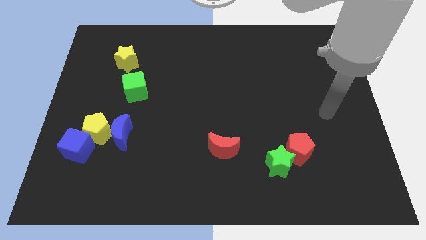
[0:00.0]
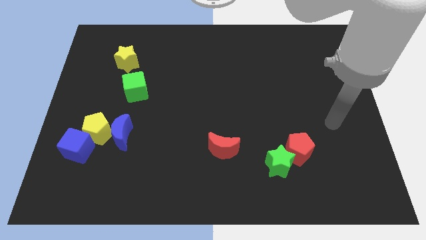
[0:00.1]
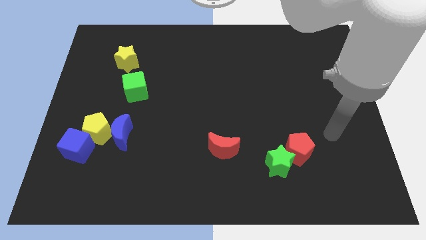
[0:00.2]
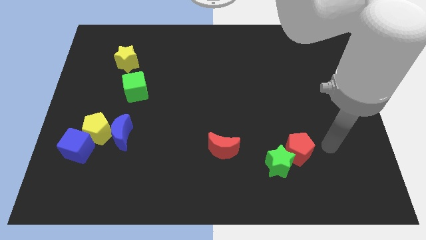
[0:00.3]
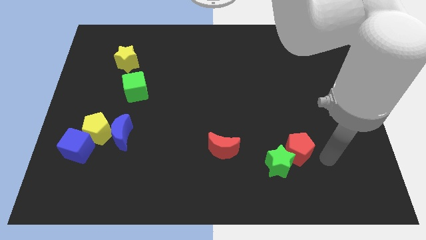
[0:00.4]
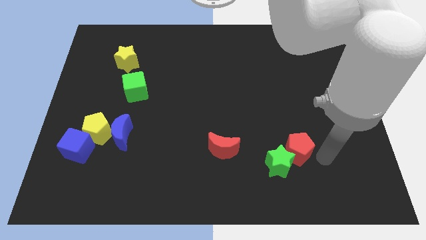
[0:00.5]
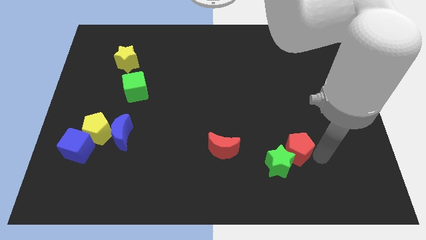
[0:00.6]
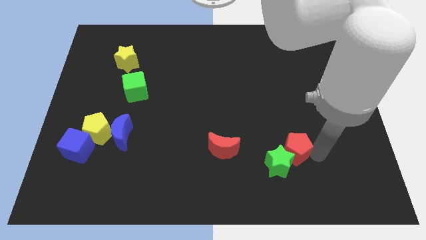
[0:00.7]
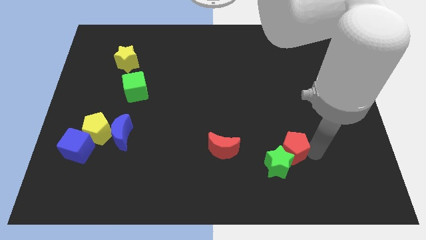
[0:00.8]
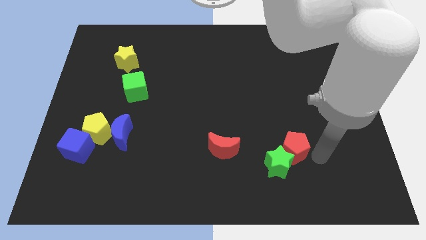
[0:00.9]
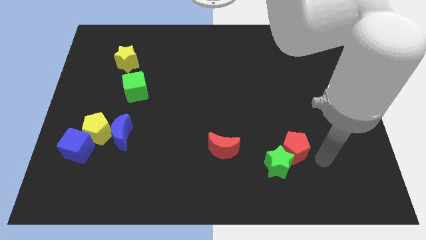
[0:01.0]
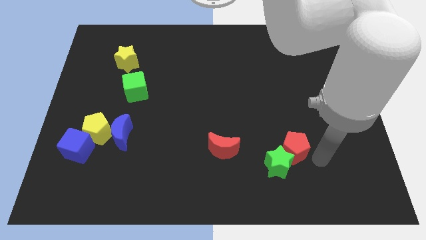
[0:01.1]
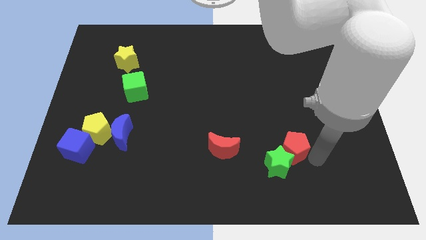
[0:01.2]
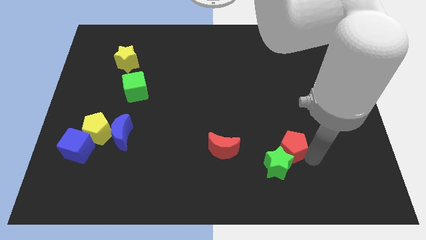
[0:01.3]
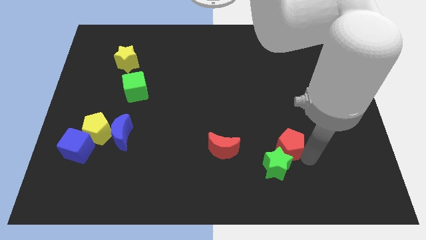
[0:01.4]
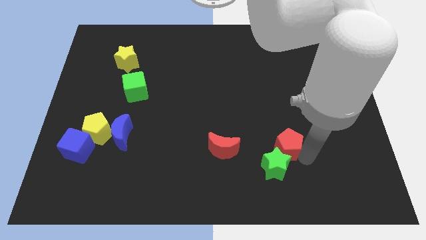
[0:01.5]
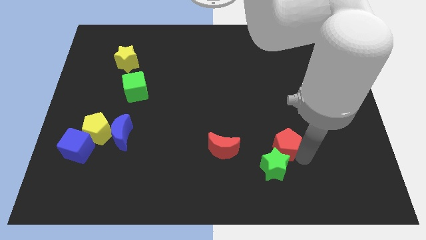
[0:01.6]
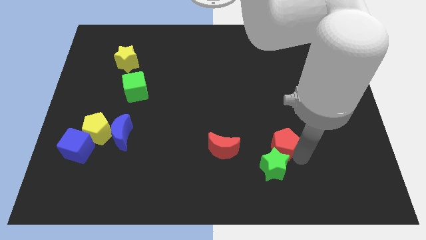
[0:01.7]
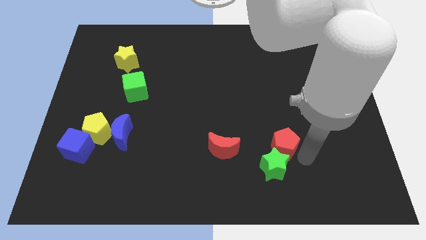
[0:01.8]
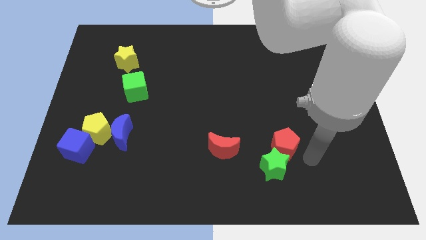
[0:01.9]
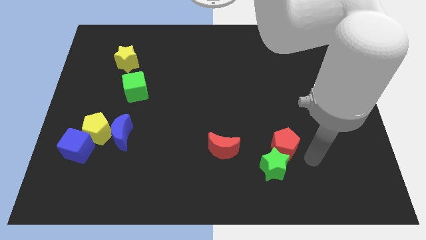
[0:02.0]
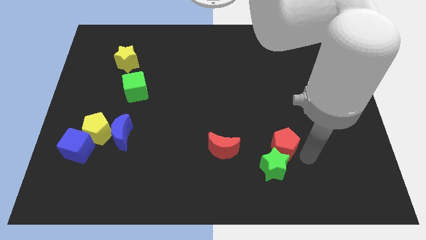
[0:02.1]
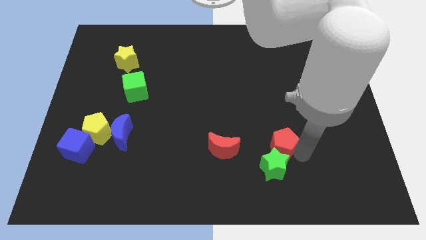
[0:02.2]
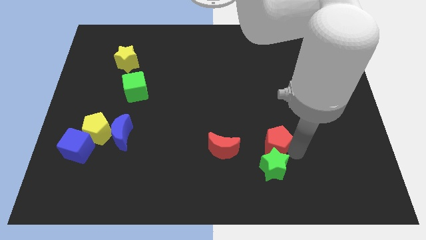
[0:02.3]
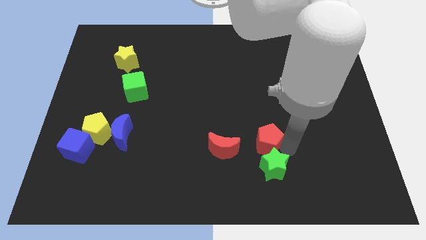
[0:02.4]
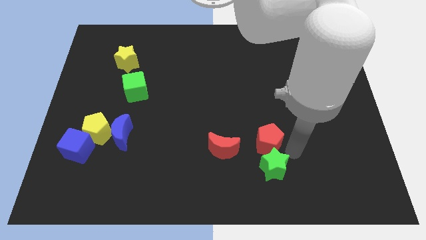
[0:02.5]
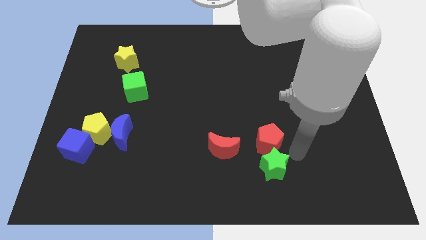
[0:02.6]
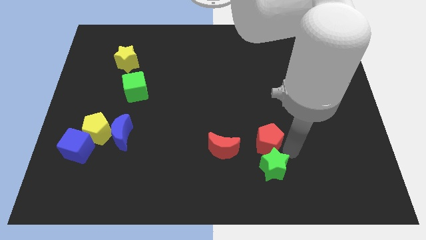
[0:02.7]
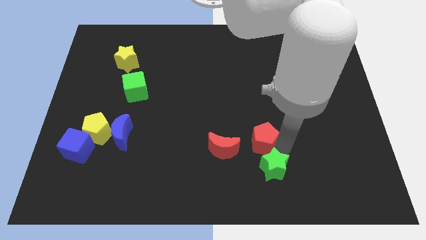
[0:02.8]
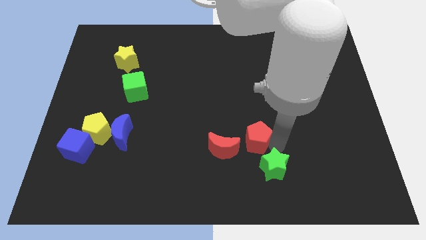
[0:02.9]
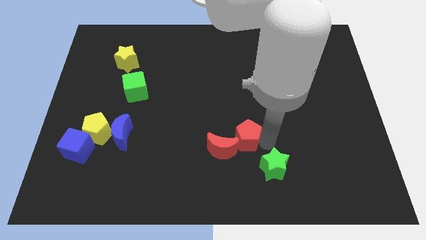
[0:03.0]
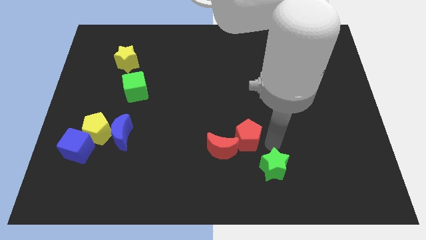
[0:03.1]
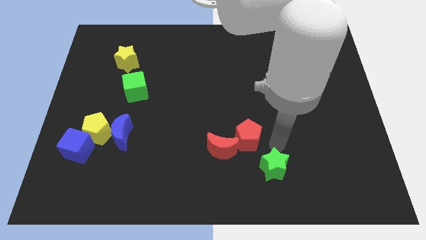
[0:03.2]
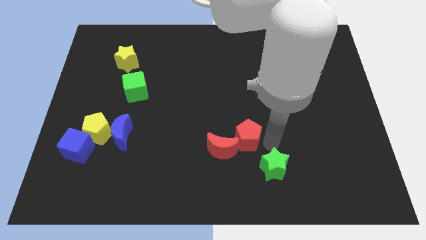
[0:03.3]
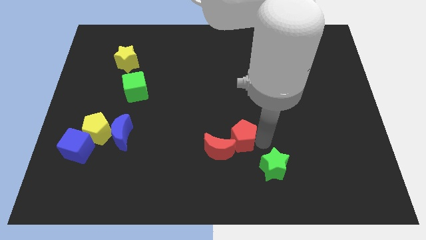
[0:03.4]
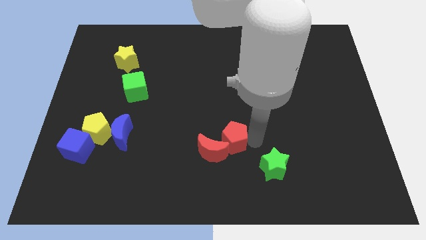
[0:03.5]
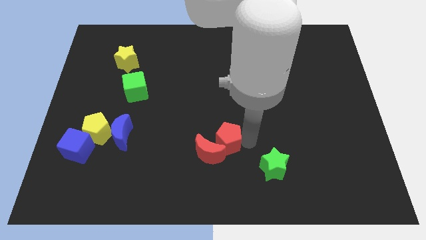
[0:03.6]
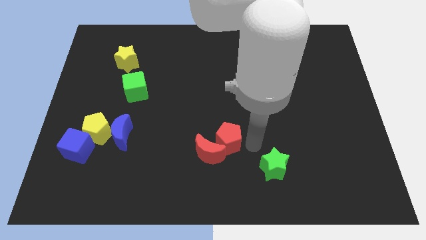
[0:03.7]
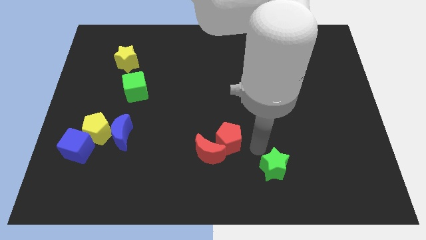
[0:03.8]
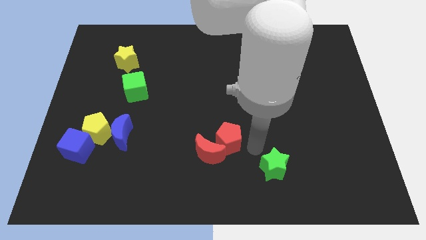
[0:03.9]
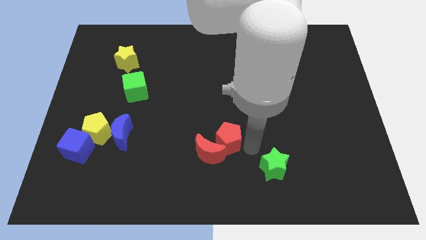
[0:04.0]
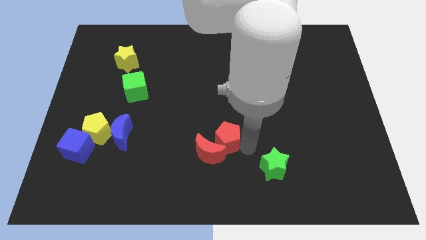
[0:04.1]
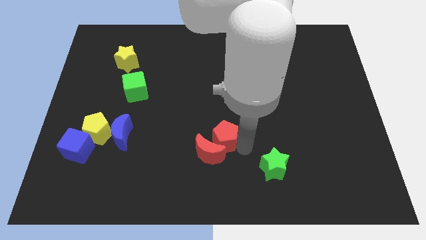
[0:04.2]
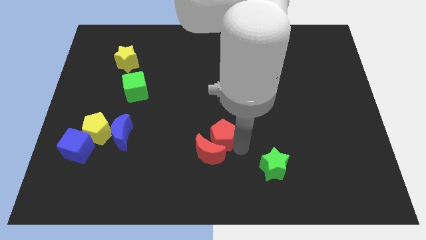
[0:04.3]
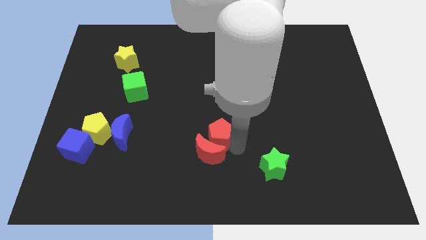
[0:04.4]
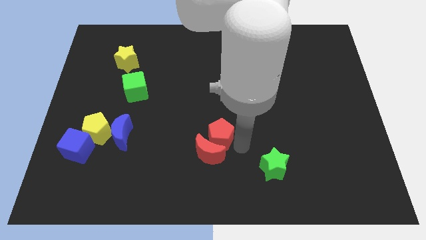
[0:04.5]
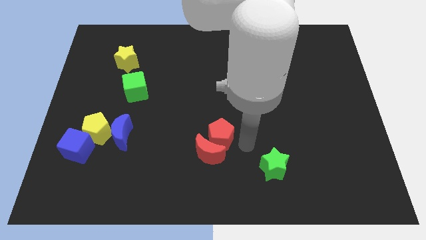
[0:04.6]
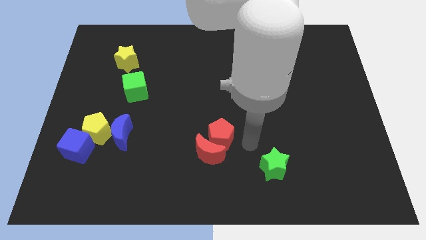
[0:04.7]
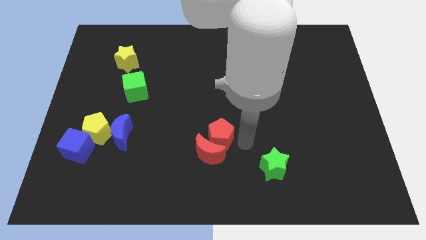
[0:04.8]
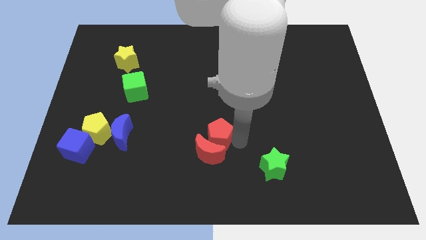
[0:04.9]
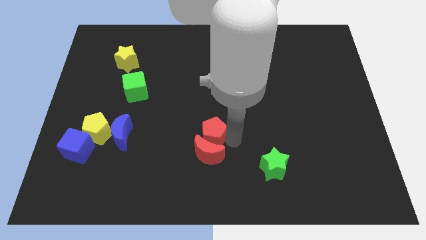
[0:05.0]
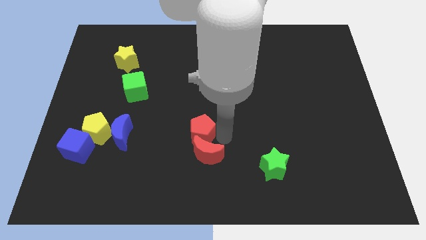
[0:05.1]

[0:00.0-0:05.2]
push the red pentagon to the left

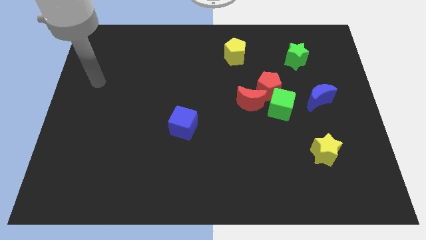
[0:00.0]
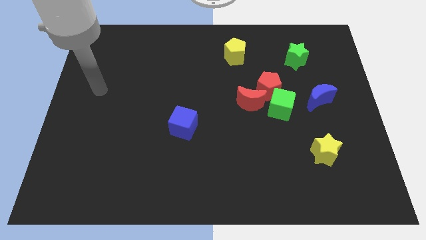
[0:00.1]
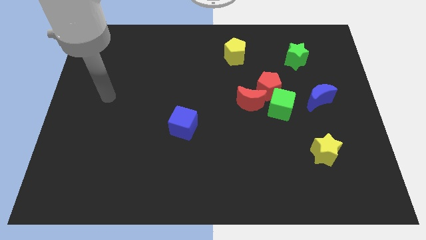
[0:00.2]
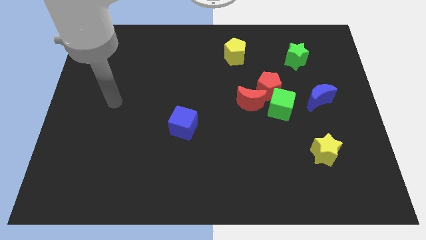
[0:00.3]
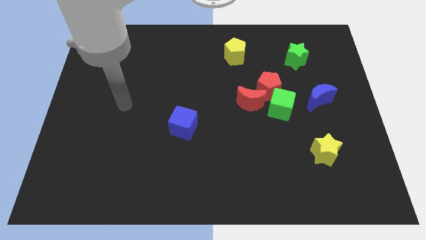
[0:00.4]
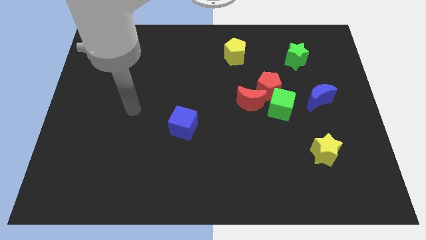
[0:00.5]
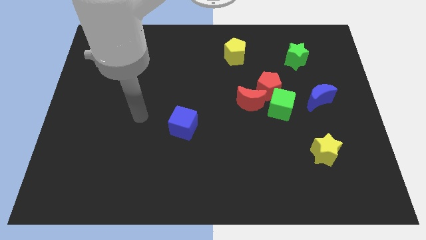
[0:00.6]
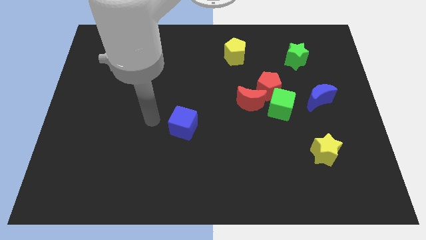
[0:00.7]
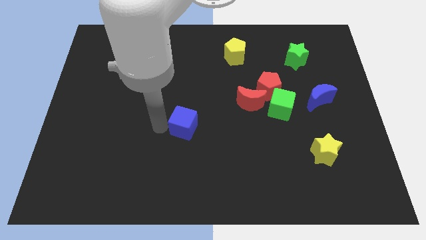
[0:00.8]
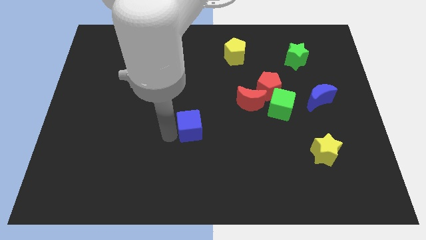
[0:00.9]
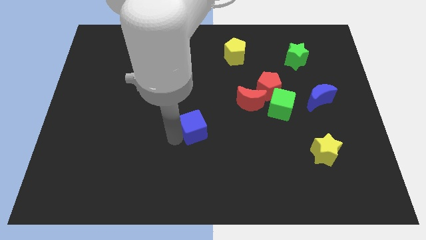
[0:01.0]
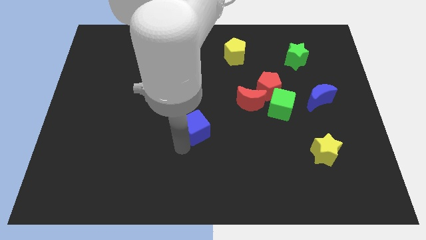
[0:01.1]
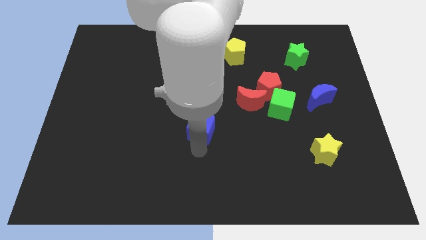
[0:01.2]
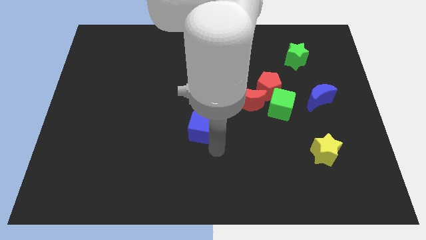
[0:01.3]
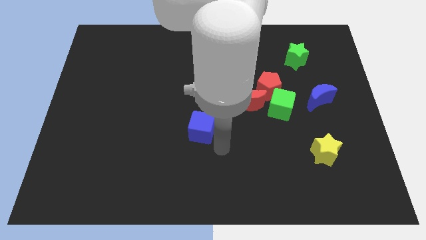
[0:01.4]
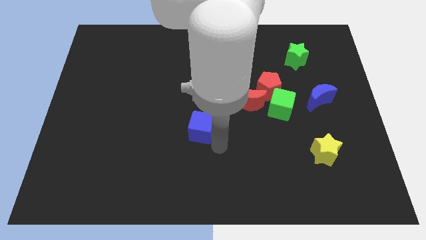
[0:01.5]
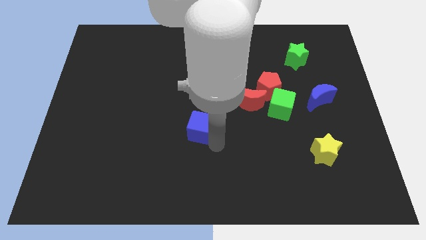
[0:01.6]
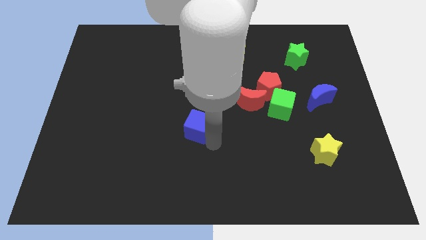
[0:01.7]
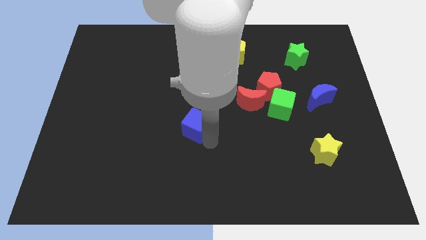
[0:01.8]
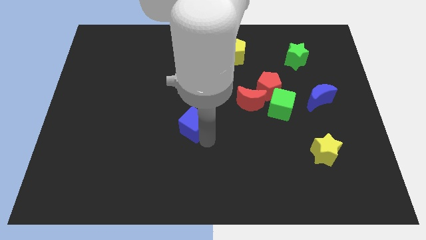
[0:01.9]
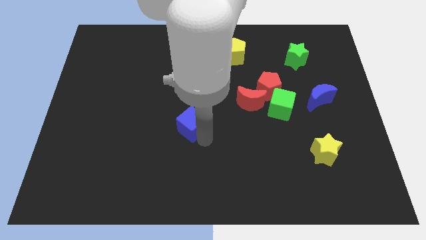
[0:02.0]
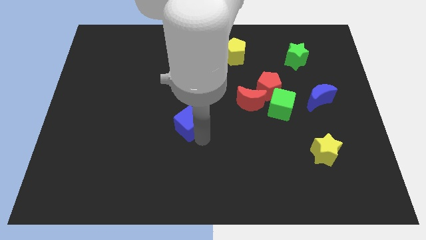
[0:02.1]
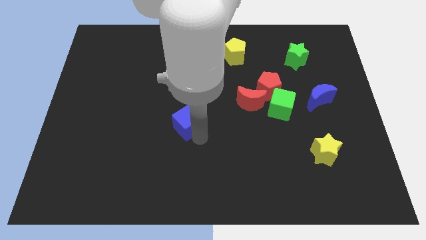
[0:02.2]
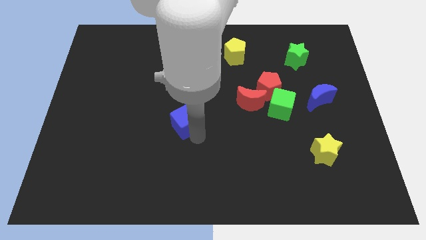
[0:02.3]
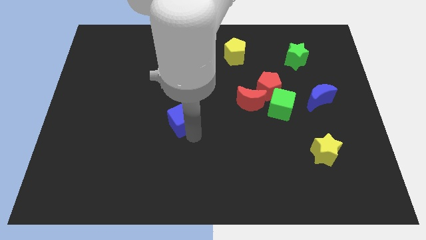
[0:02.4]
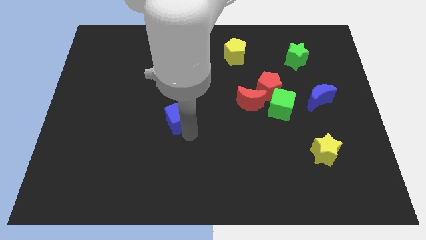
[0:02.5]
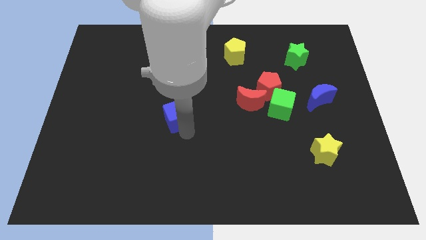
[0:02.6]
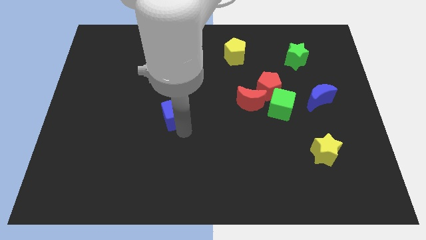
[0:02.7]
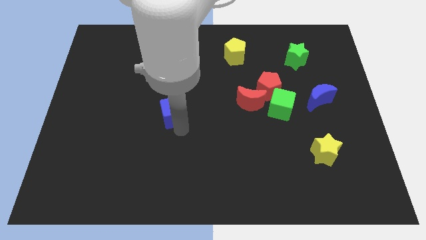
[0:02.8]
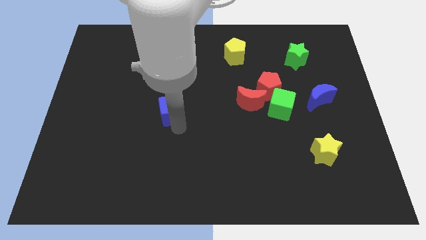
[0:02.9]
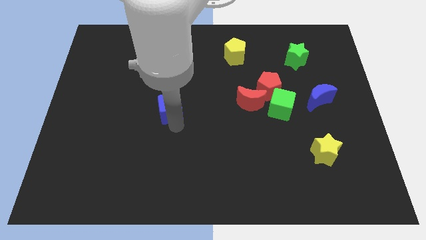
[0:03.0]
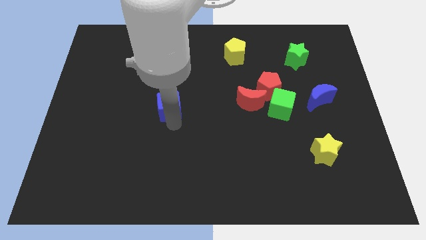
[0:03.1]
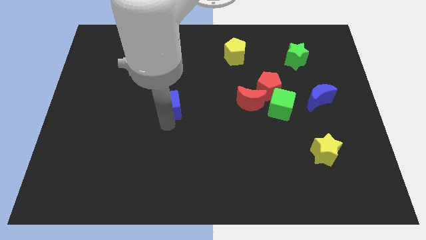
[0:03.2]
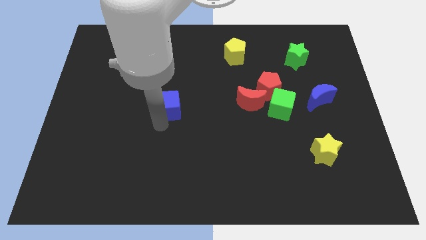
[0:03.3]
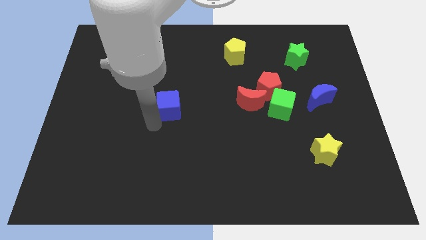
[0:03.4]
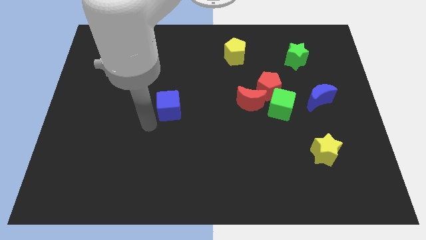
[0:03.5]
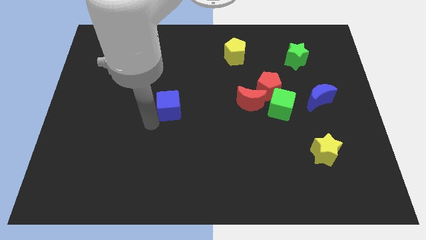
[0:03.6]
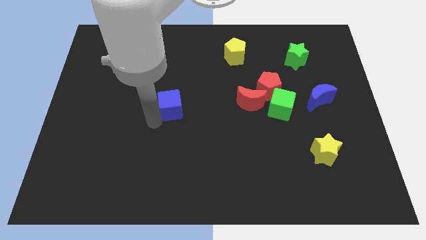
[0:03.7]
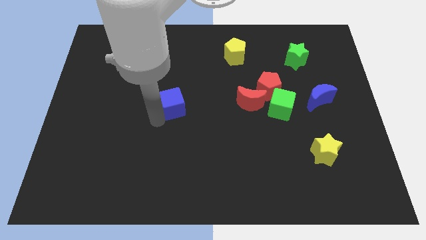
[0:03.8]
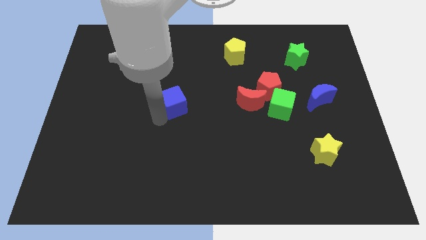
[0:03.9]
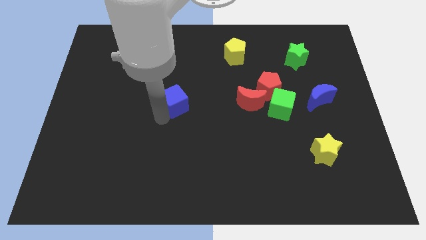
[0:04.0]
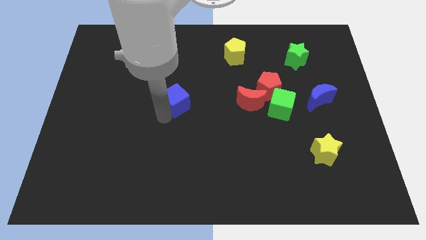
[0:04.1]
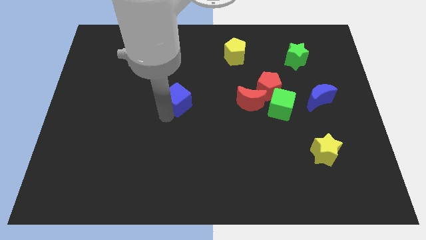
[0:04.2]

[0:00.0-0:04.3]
move the blue cube a bit upwards
